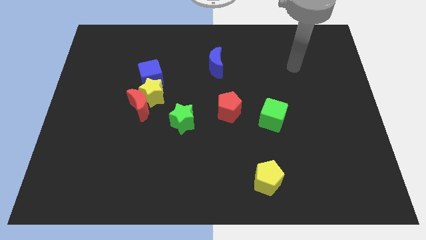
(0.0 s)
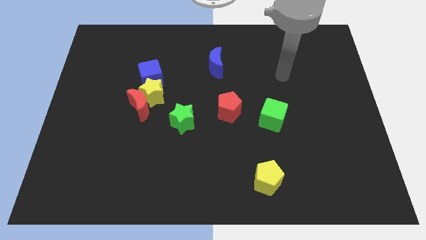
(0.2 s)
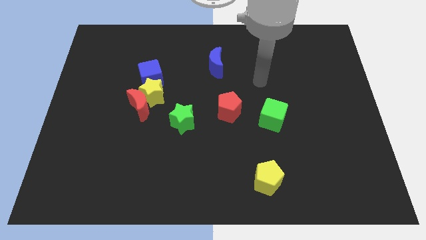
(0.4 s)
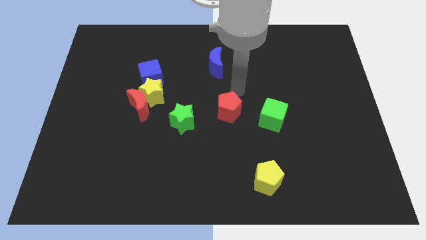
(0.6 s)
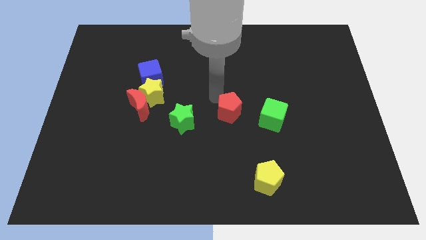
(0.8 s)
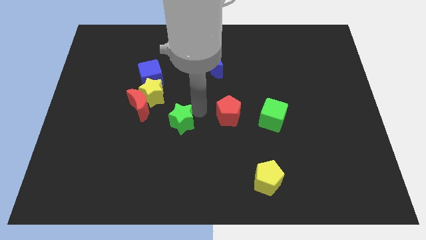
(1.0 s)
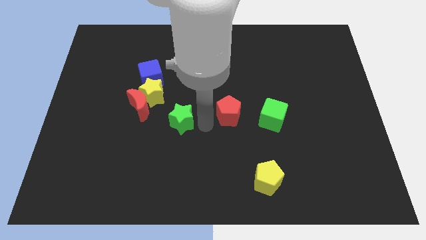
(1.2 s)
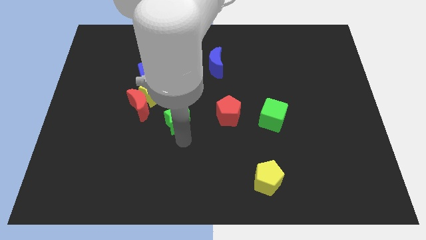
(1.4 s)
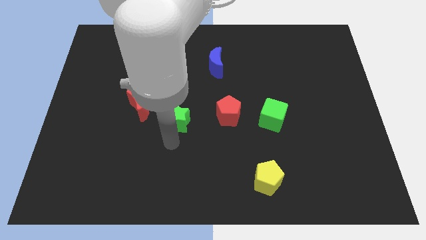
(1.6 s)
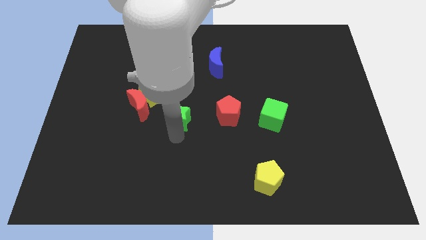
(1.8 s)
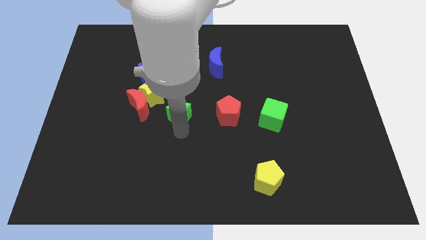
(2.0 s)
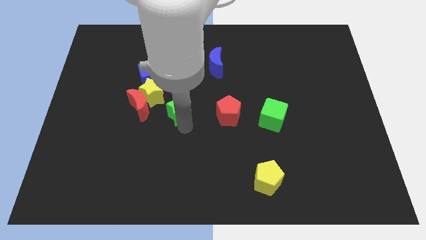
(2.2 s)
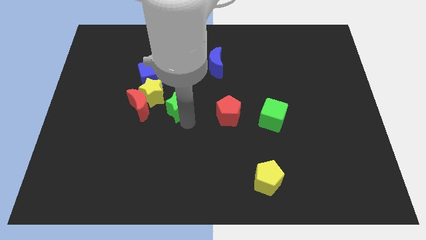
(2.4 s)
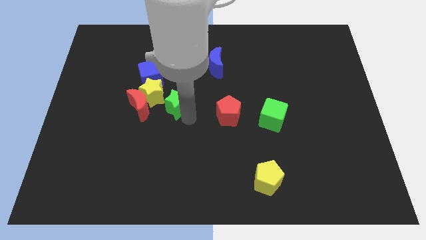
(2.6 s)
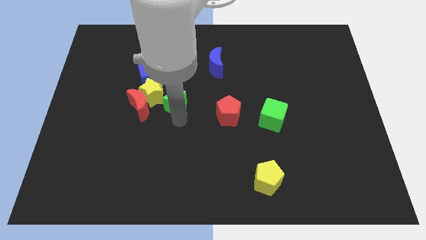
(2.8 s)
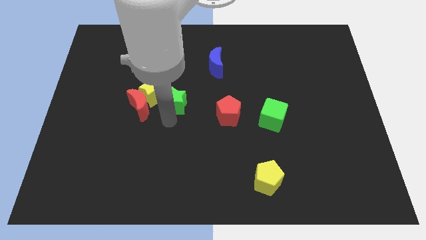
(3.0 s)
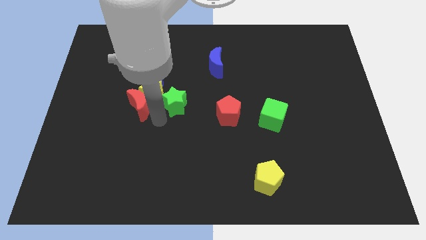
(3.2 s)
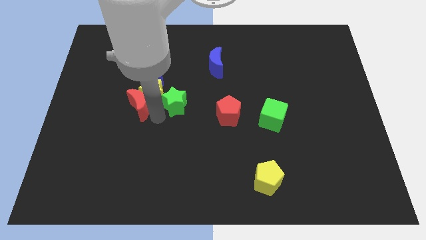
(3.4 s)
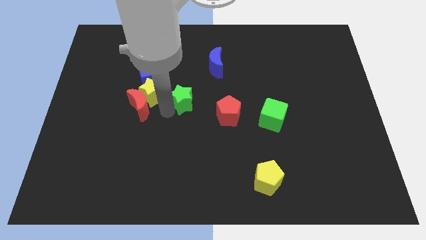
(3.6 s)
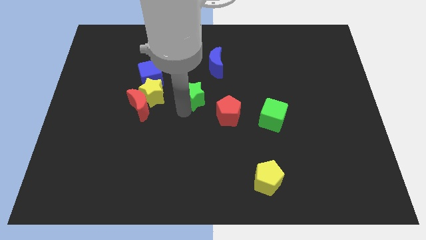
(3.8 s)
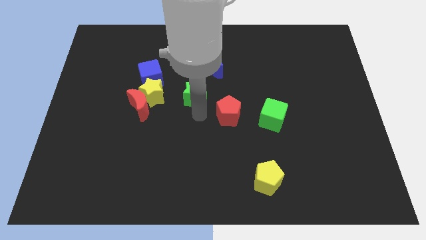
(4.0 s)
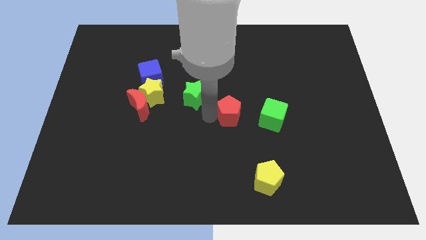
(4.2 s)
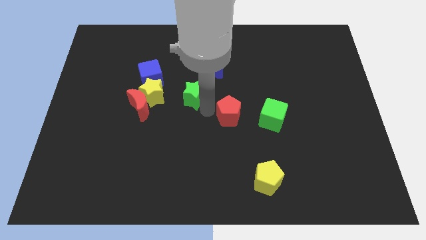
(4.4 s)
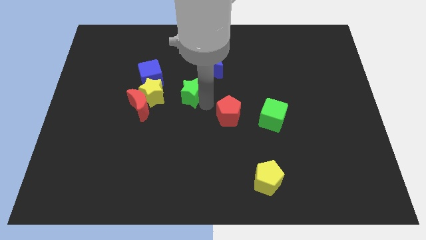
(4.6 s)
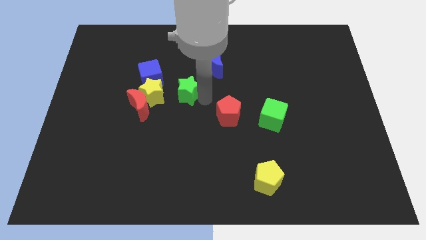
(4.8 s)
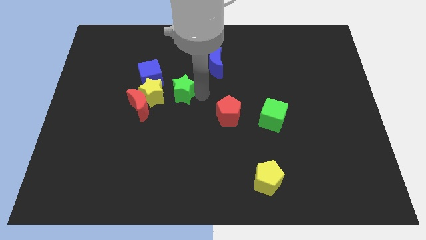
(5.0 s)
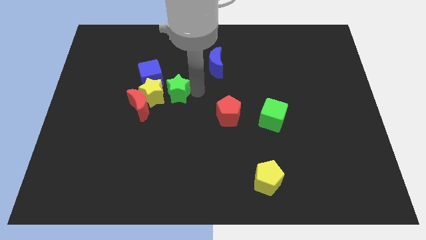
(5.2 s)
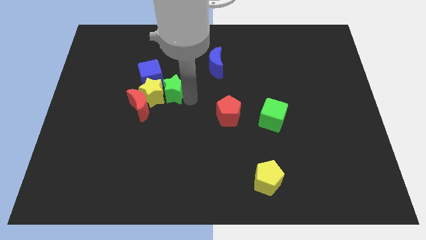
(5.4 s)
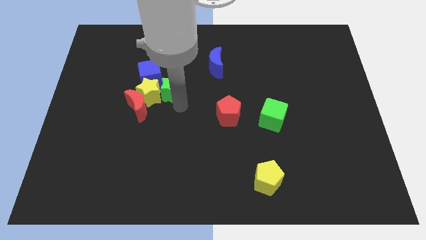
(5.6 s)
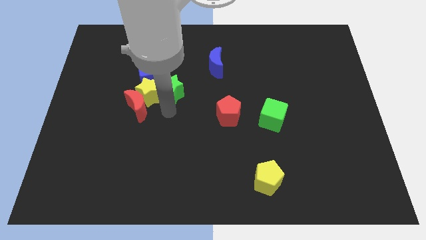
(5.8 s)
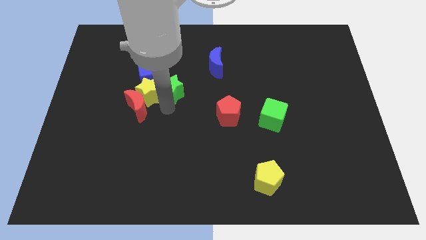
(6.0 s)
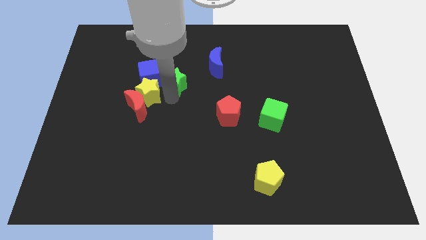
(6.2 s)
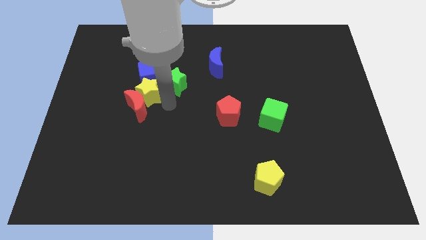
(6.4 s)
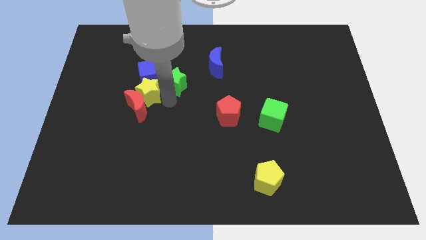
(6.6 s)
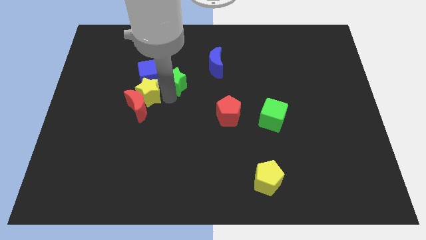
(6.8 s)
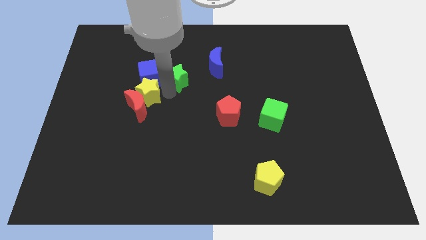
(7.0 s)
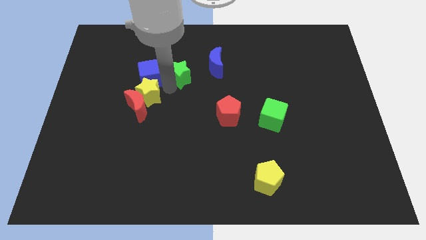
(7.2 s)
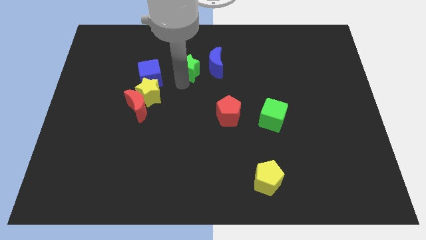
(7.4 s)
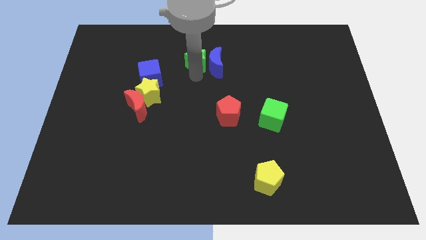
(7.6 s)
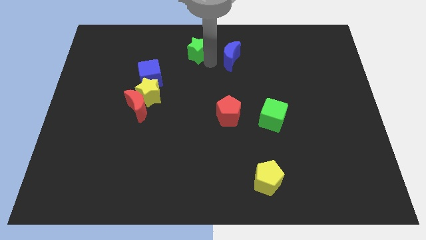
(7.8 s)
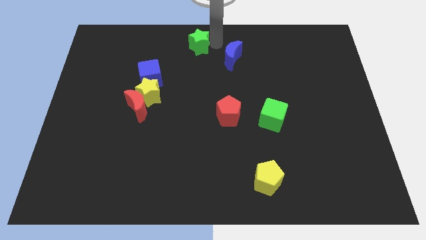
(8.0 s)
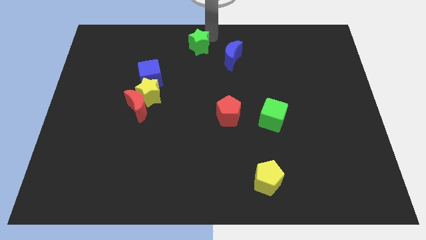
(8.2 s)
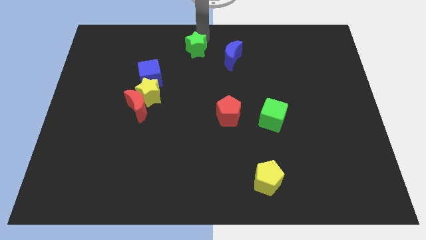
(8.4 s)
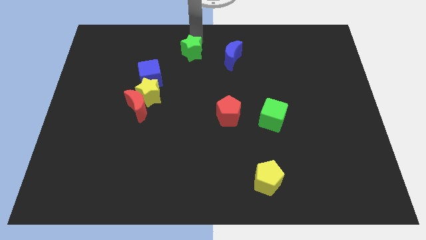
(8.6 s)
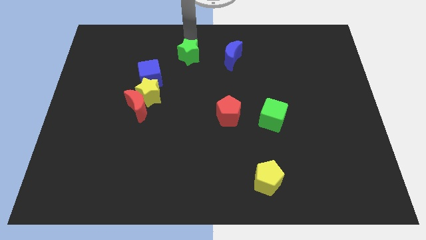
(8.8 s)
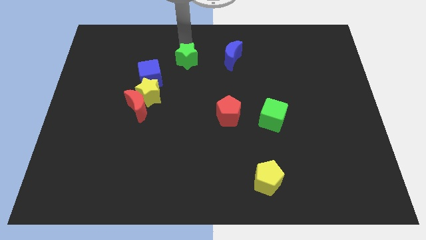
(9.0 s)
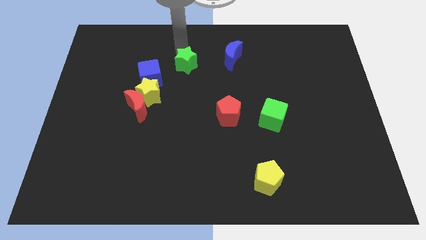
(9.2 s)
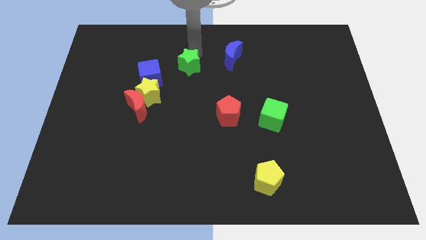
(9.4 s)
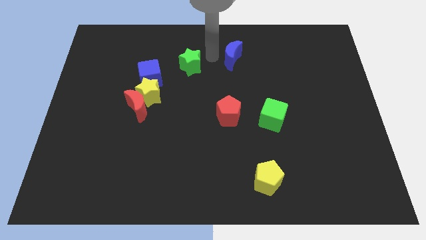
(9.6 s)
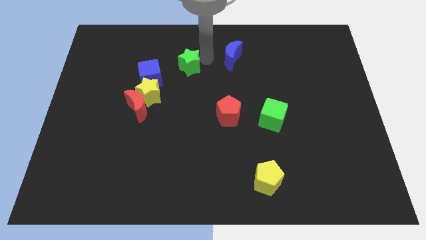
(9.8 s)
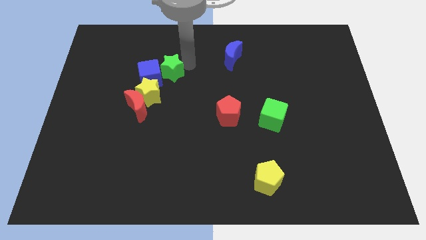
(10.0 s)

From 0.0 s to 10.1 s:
put the green star to the blue cube

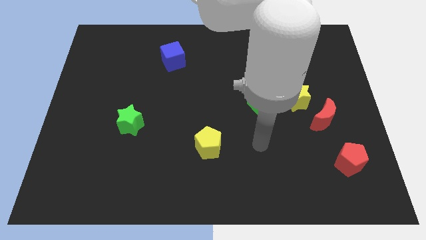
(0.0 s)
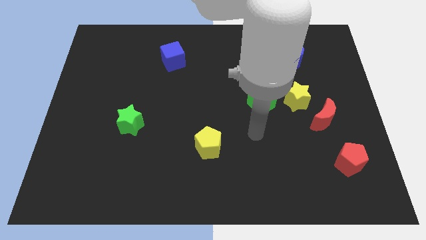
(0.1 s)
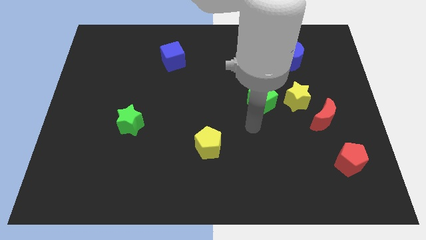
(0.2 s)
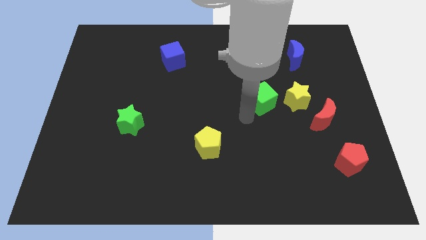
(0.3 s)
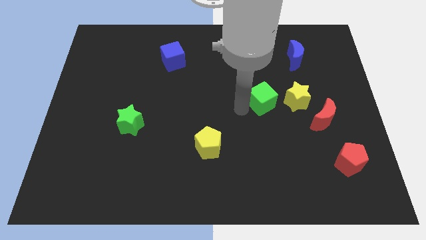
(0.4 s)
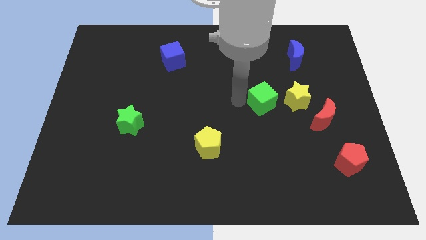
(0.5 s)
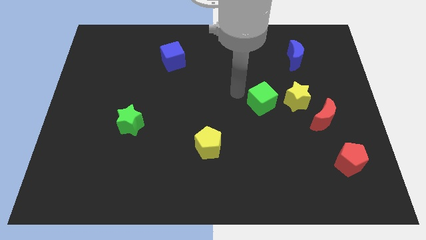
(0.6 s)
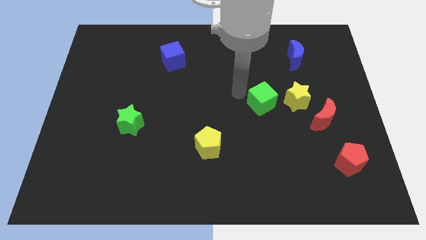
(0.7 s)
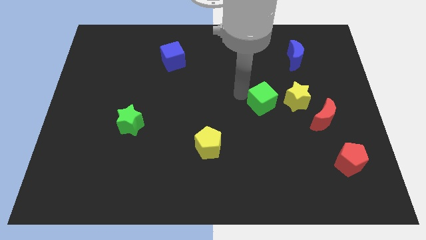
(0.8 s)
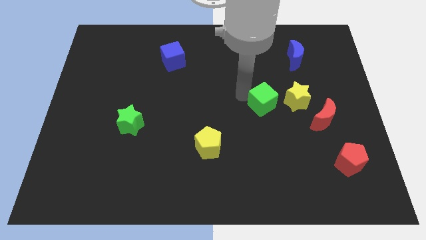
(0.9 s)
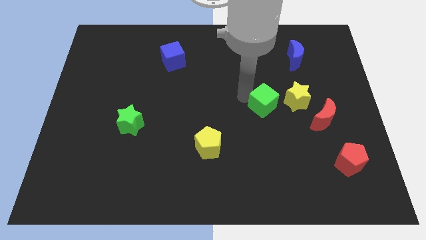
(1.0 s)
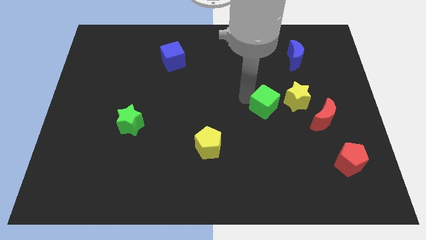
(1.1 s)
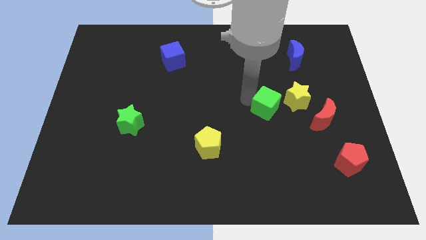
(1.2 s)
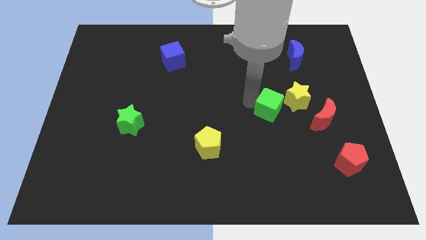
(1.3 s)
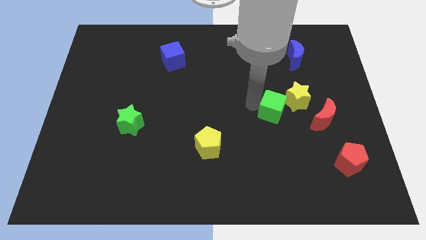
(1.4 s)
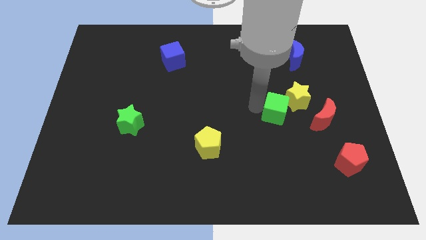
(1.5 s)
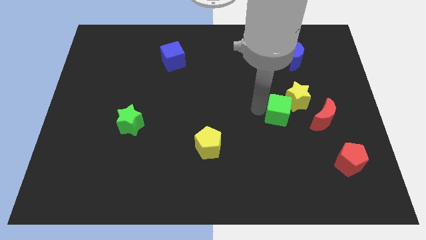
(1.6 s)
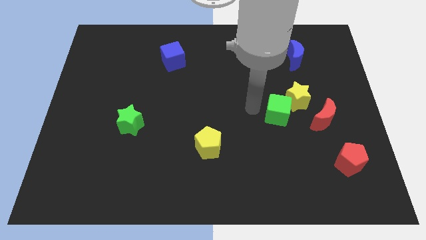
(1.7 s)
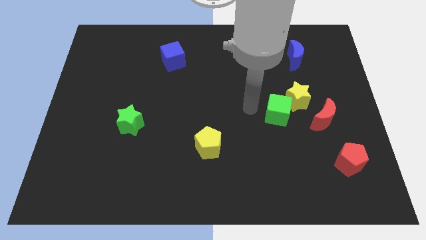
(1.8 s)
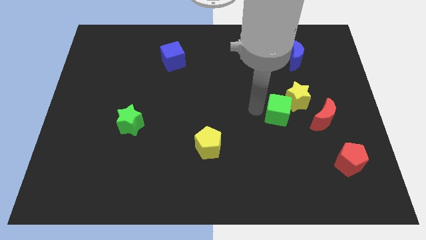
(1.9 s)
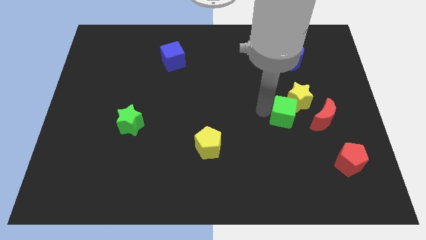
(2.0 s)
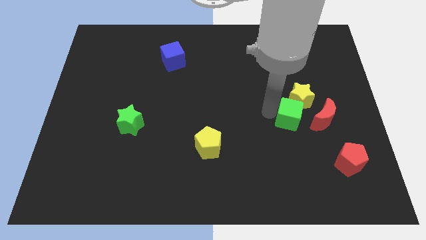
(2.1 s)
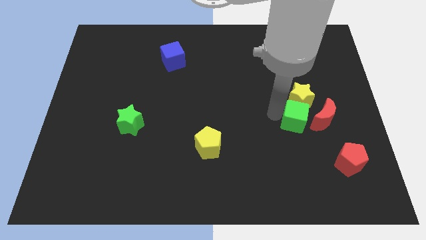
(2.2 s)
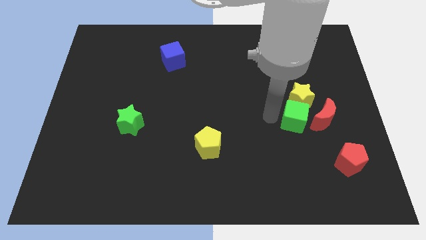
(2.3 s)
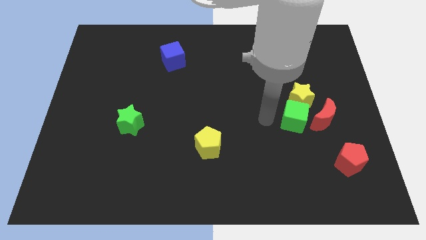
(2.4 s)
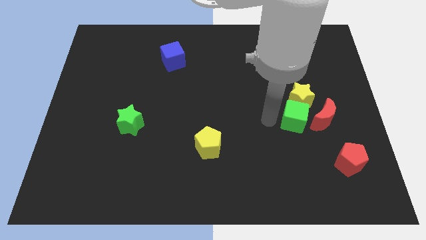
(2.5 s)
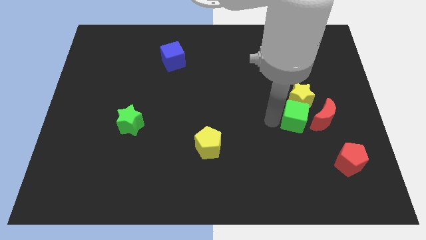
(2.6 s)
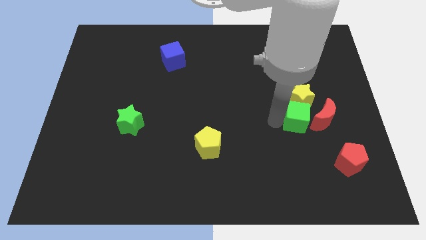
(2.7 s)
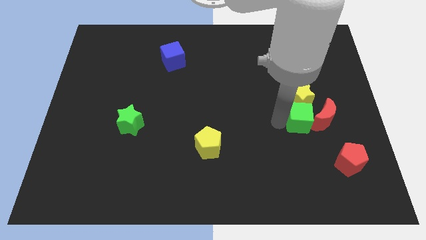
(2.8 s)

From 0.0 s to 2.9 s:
move the green cube close to the red moon

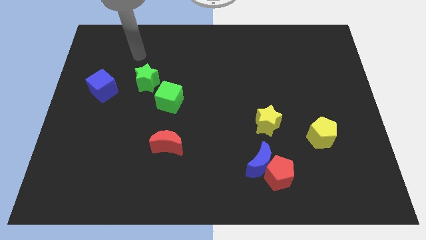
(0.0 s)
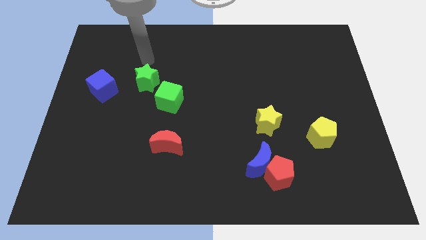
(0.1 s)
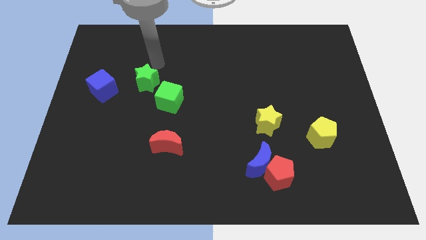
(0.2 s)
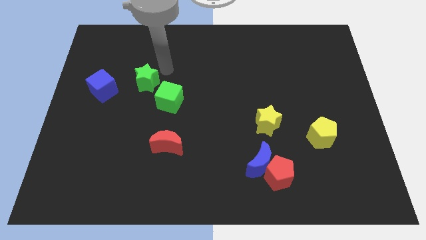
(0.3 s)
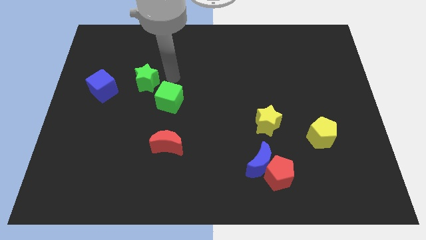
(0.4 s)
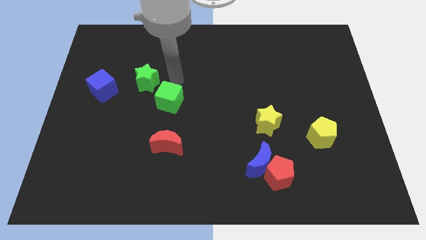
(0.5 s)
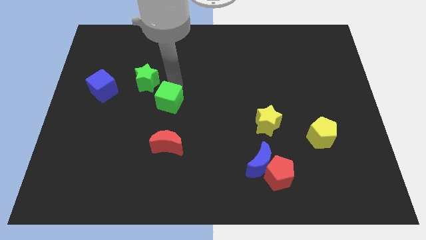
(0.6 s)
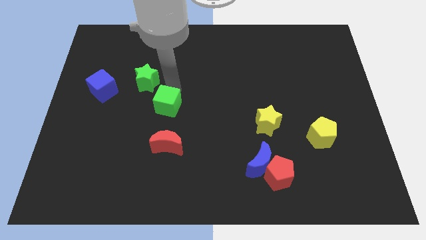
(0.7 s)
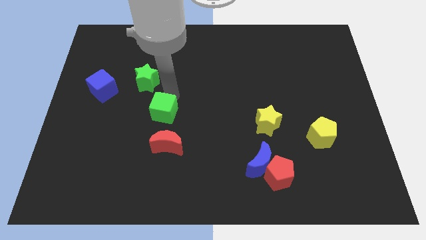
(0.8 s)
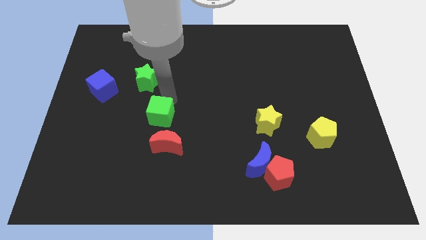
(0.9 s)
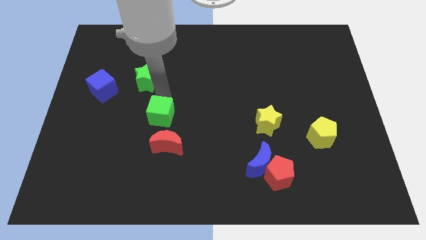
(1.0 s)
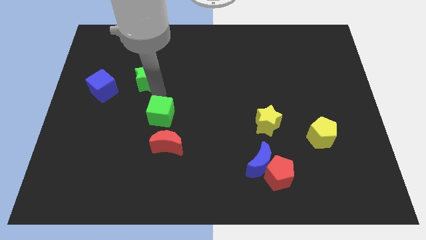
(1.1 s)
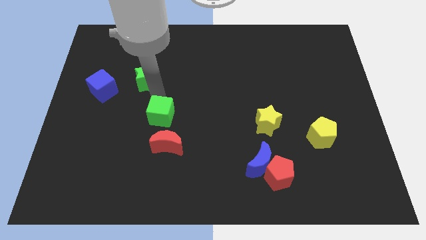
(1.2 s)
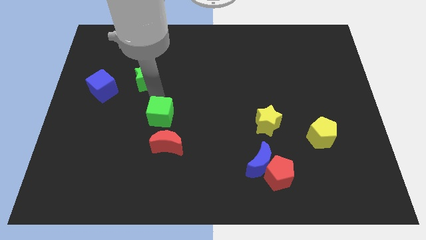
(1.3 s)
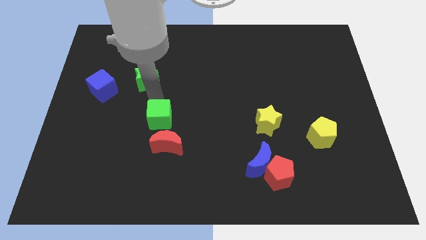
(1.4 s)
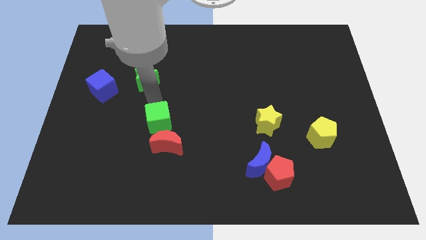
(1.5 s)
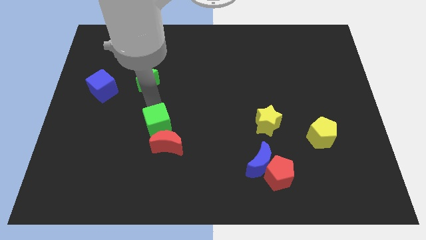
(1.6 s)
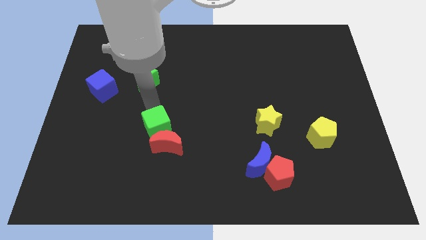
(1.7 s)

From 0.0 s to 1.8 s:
put the green cube close to the red moon
